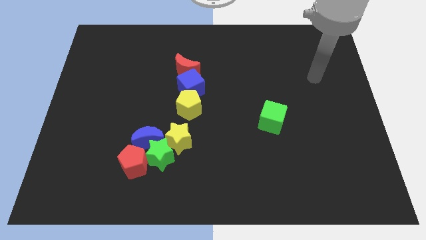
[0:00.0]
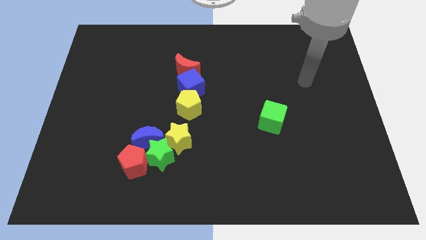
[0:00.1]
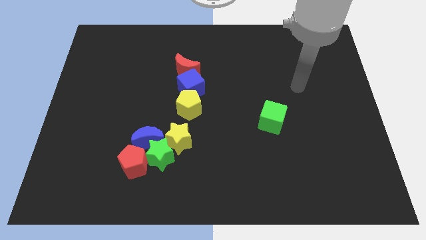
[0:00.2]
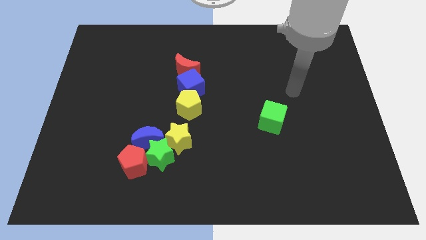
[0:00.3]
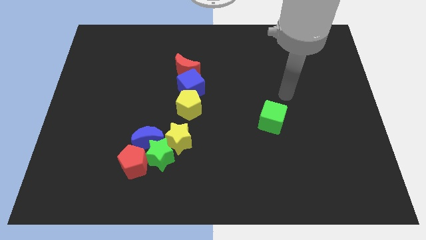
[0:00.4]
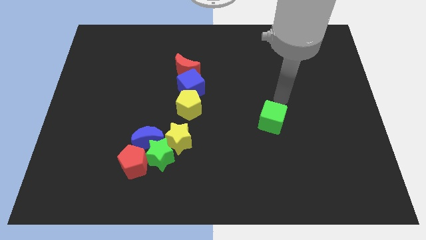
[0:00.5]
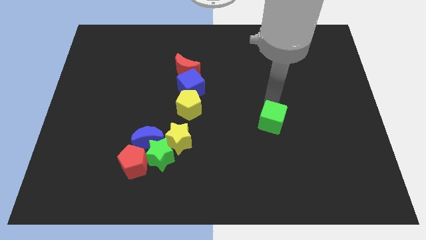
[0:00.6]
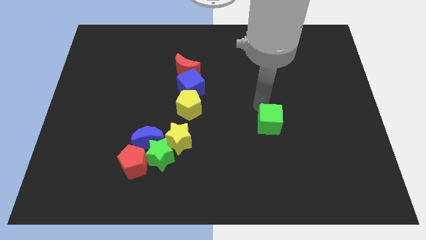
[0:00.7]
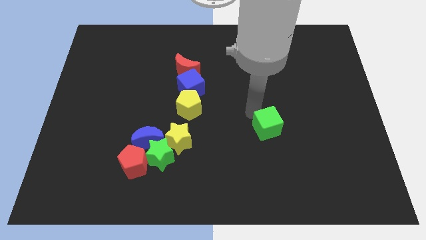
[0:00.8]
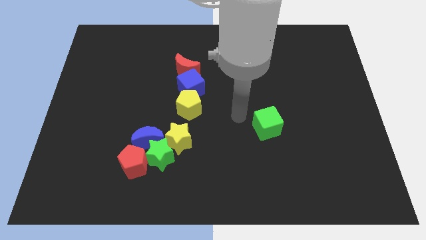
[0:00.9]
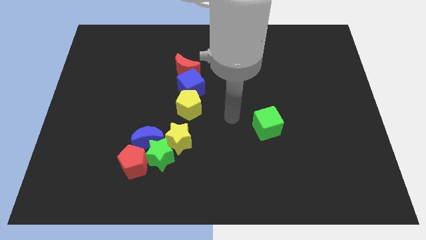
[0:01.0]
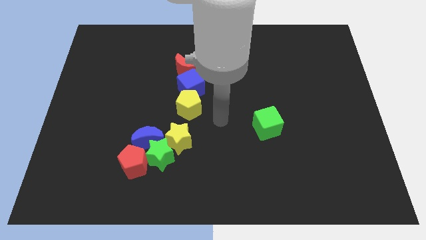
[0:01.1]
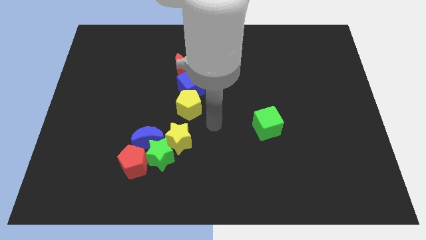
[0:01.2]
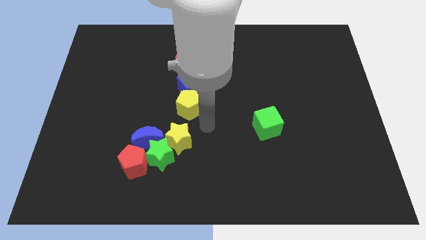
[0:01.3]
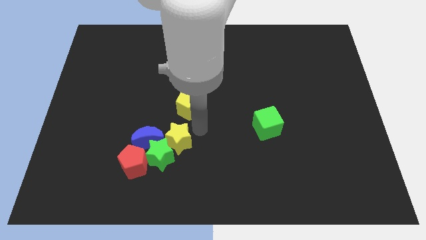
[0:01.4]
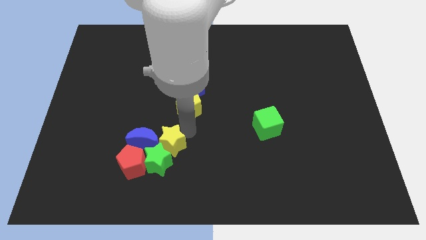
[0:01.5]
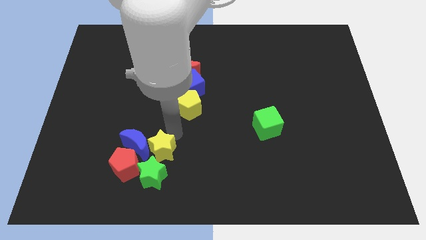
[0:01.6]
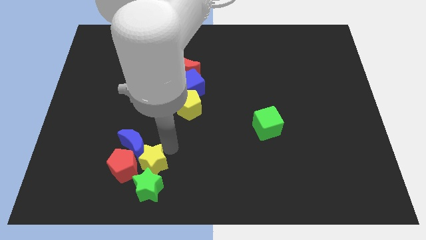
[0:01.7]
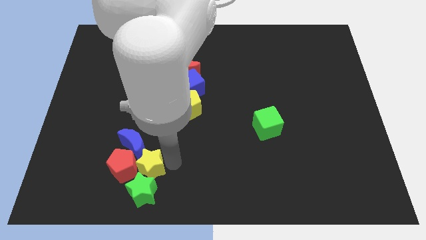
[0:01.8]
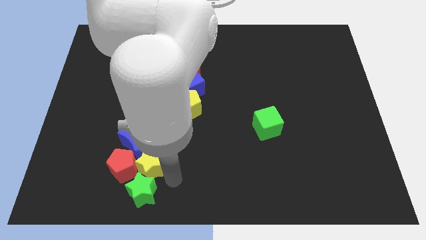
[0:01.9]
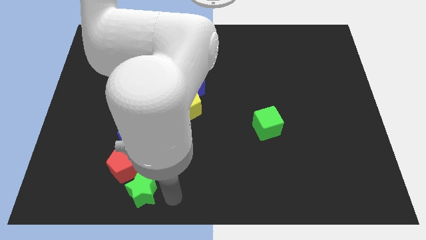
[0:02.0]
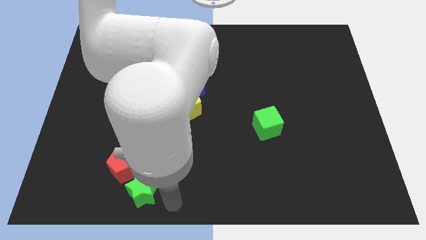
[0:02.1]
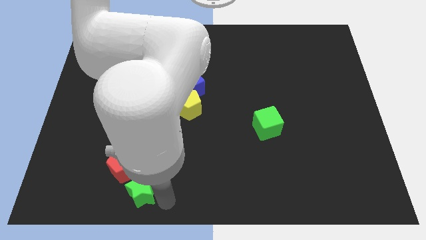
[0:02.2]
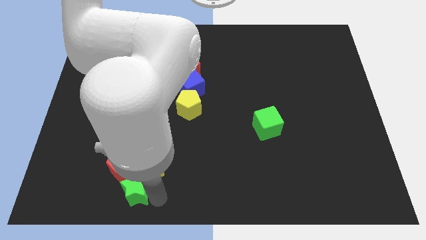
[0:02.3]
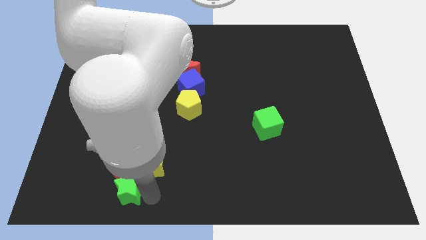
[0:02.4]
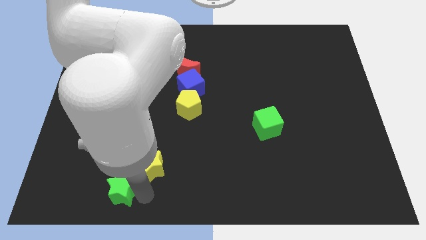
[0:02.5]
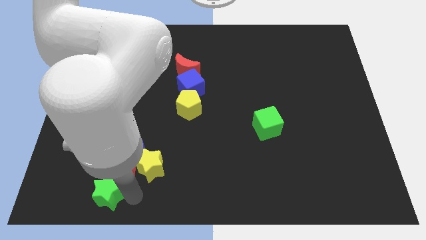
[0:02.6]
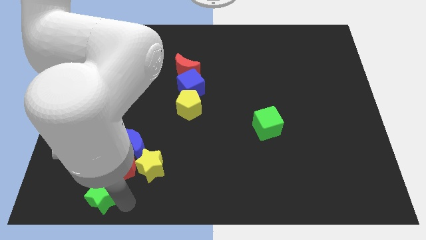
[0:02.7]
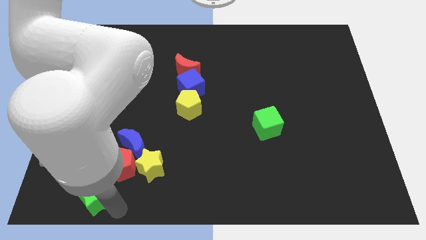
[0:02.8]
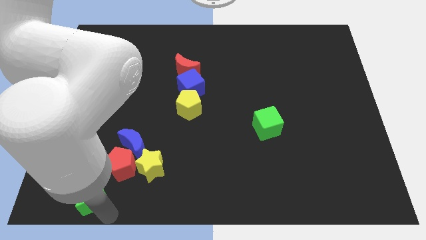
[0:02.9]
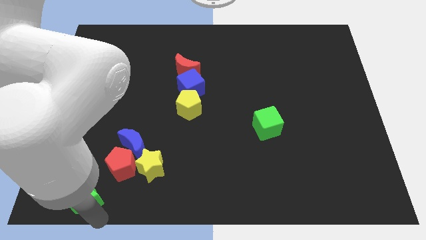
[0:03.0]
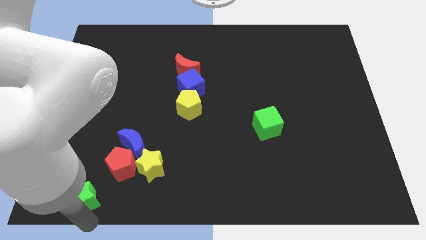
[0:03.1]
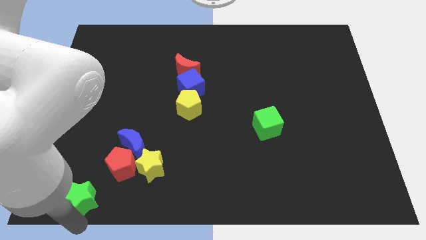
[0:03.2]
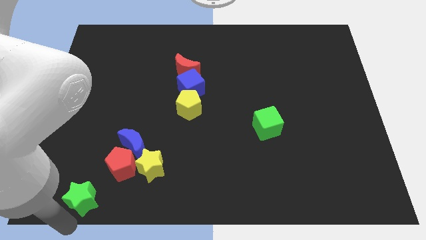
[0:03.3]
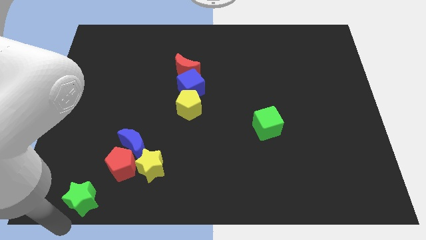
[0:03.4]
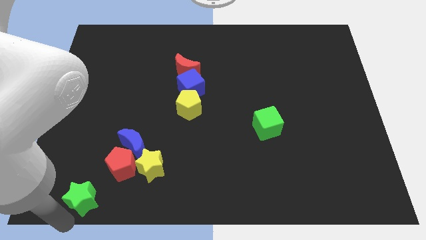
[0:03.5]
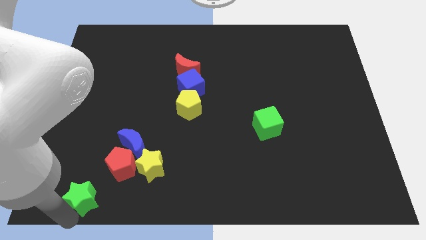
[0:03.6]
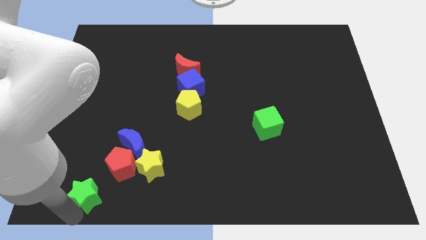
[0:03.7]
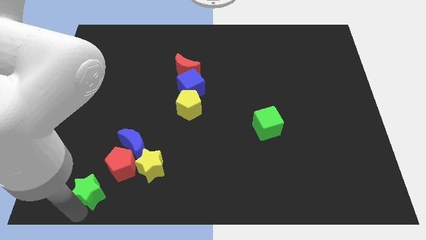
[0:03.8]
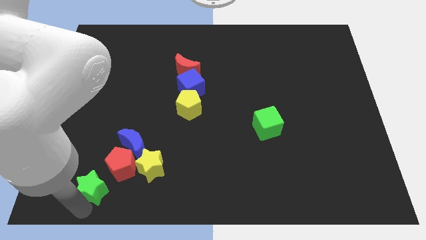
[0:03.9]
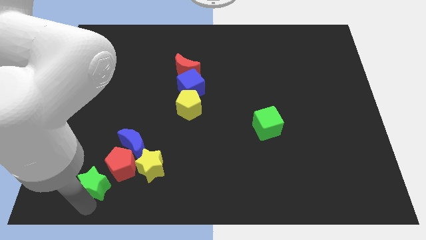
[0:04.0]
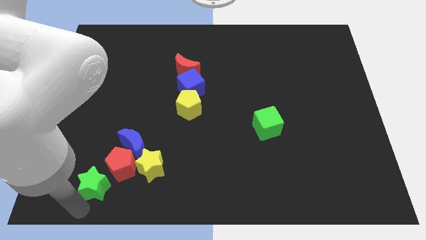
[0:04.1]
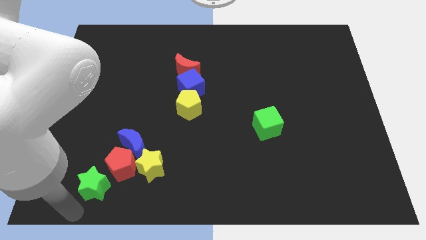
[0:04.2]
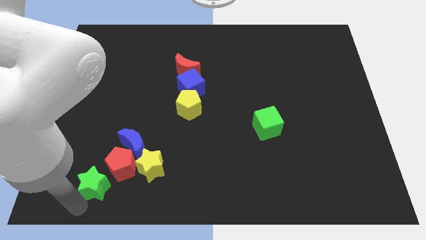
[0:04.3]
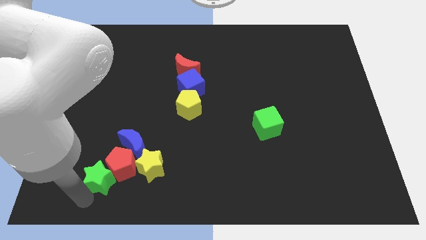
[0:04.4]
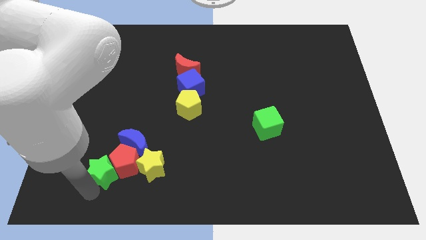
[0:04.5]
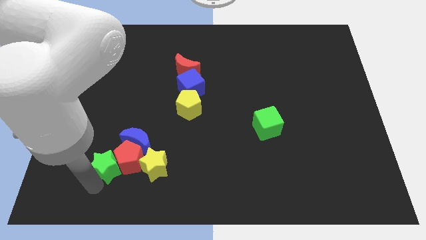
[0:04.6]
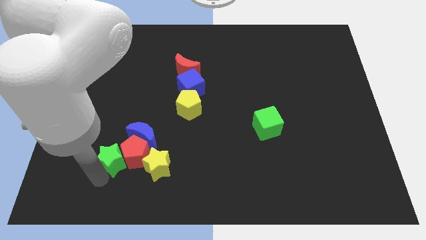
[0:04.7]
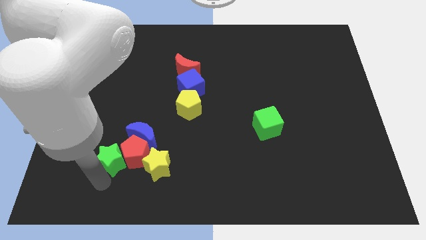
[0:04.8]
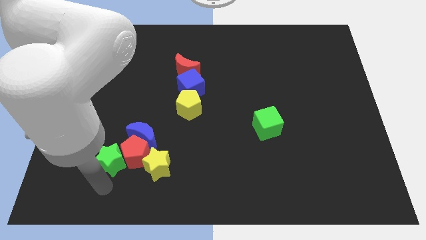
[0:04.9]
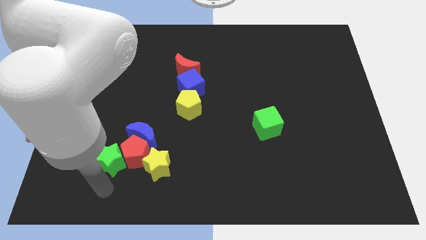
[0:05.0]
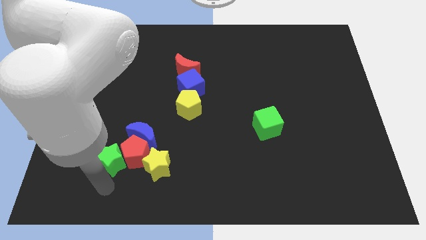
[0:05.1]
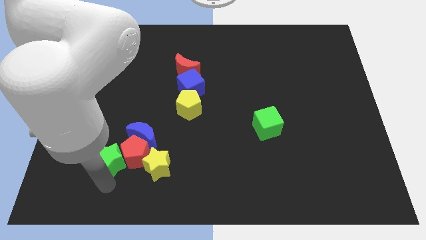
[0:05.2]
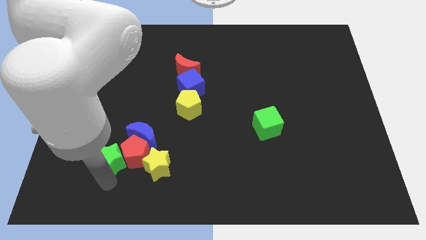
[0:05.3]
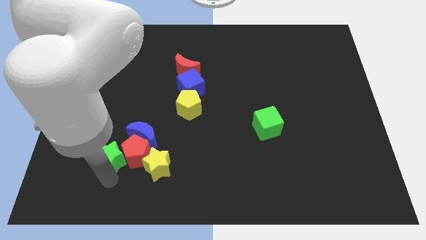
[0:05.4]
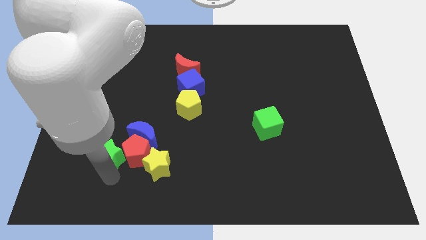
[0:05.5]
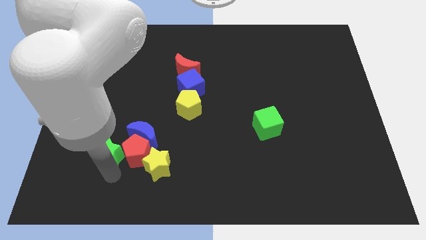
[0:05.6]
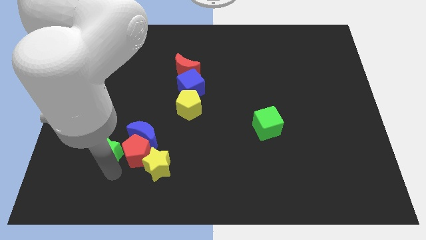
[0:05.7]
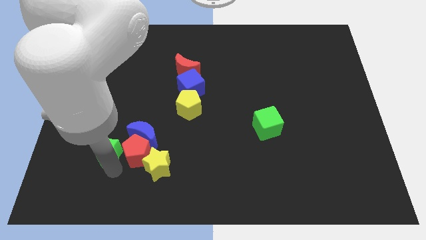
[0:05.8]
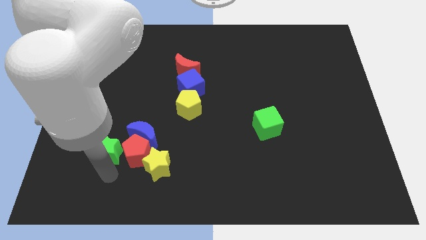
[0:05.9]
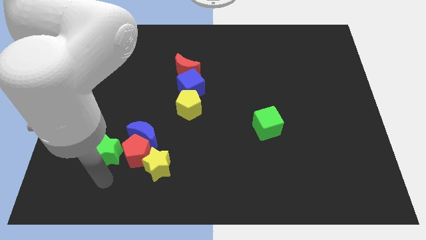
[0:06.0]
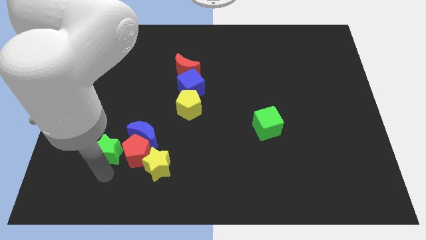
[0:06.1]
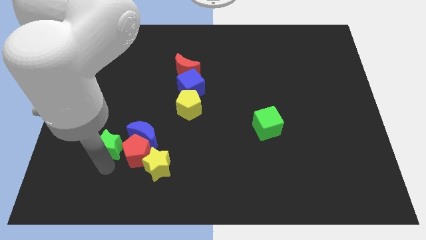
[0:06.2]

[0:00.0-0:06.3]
move the green star somewhat diagonally up and left

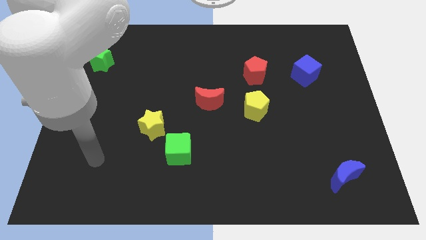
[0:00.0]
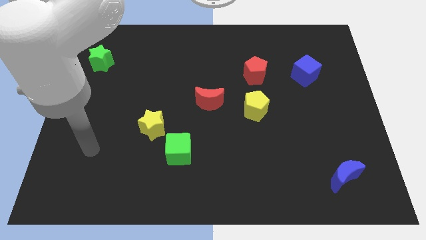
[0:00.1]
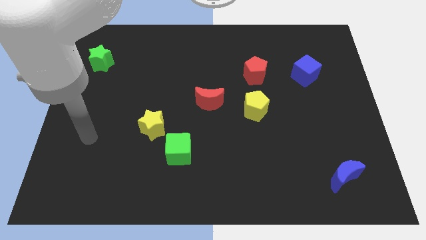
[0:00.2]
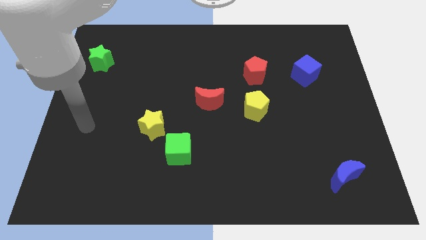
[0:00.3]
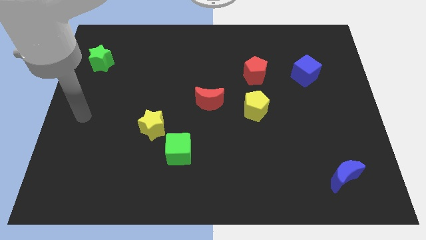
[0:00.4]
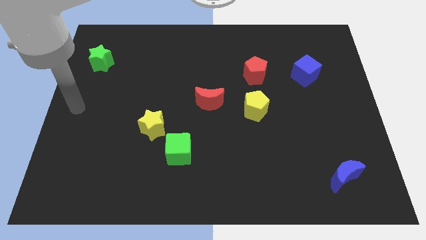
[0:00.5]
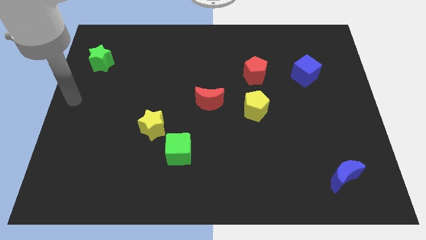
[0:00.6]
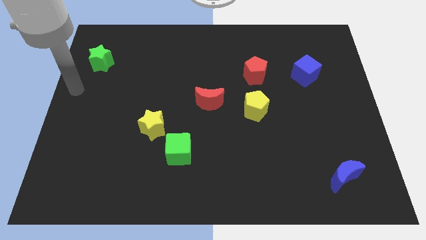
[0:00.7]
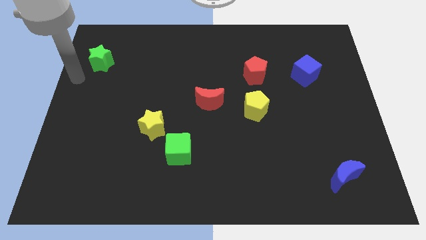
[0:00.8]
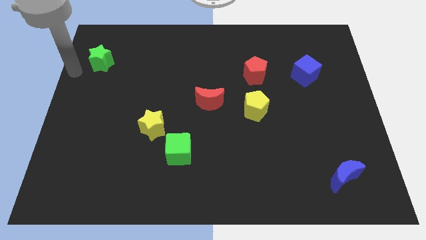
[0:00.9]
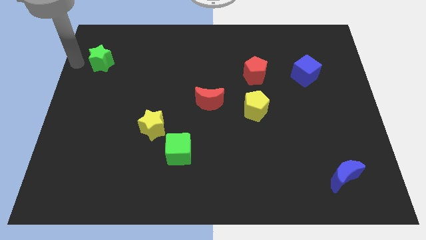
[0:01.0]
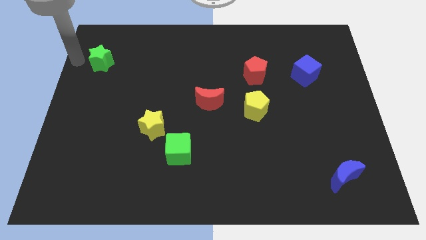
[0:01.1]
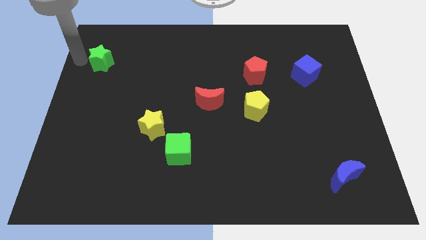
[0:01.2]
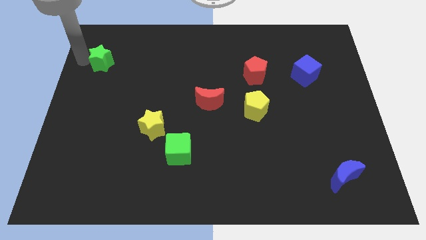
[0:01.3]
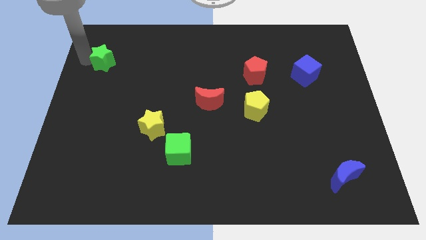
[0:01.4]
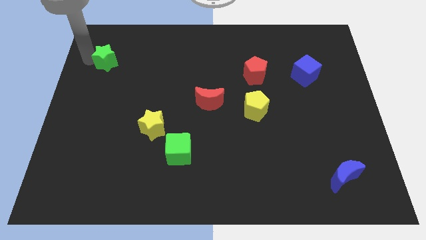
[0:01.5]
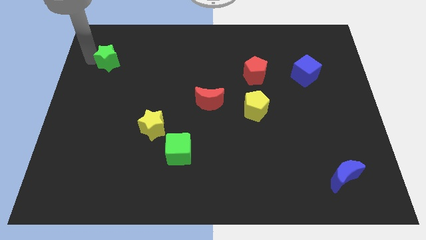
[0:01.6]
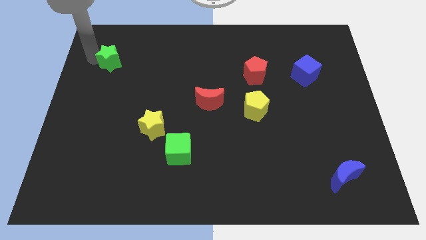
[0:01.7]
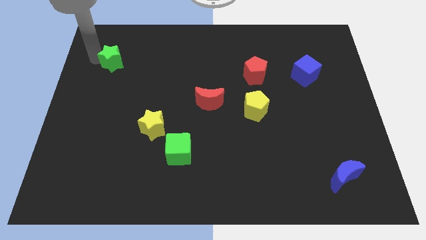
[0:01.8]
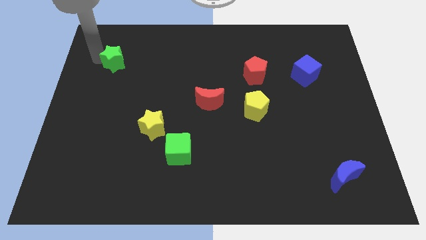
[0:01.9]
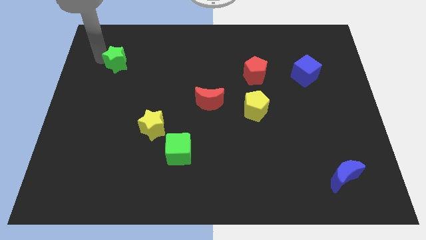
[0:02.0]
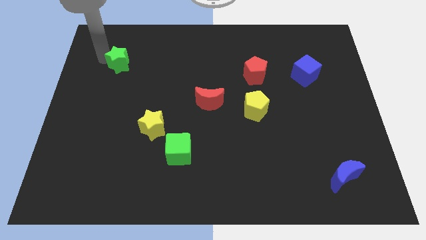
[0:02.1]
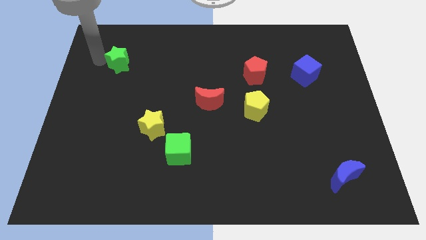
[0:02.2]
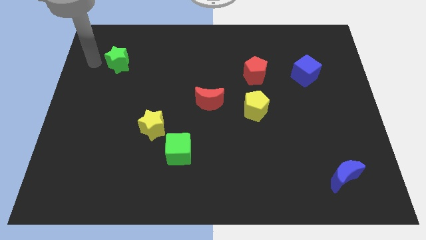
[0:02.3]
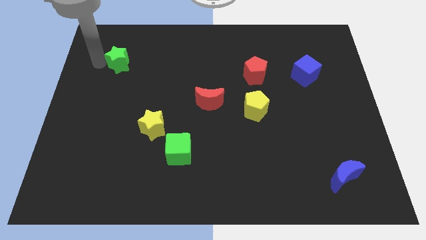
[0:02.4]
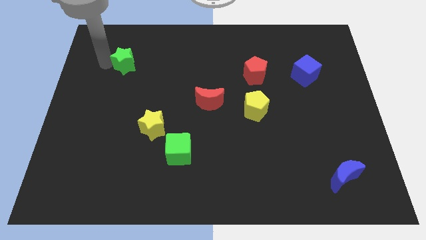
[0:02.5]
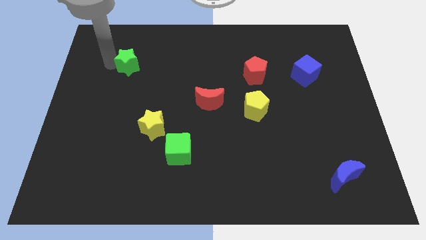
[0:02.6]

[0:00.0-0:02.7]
push the green star right a bit
